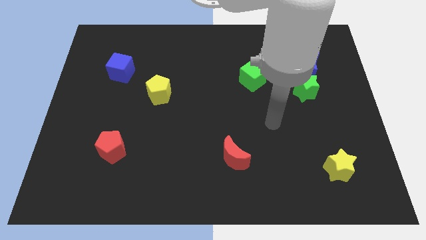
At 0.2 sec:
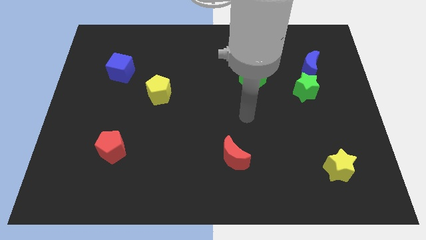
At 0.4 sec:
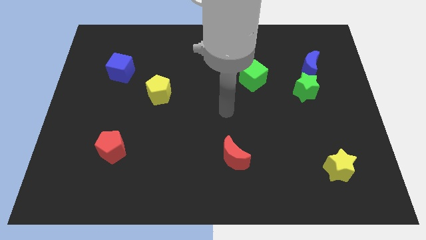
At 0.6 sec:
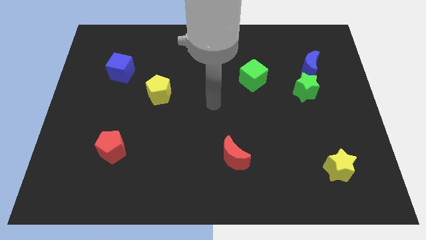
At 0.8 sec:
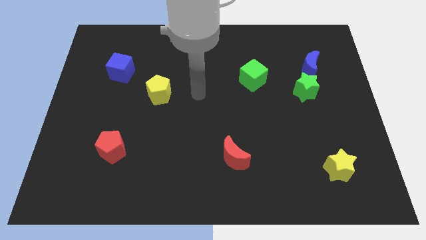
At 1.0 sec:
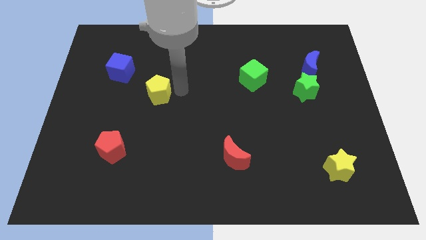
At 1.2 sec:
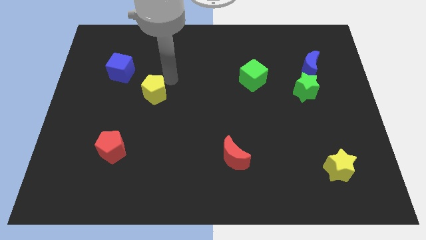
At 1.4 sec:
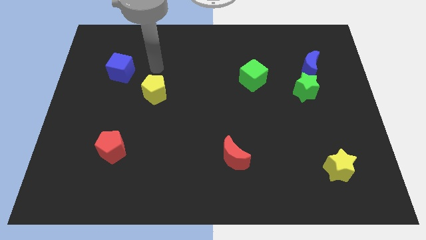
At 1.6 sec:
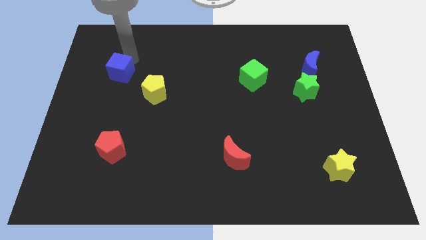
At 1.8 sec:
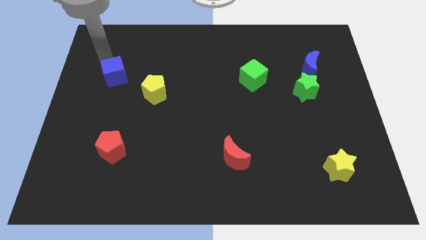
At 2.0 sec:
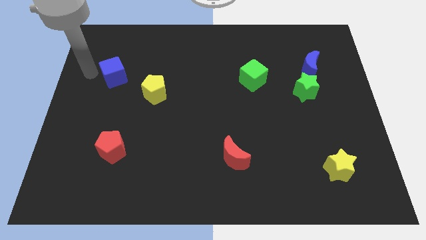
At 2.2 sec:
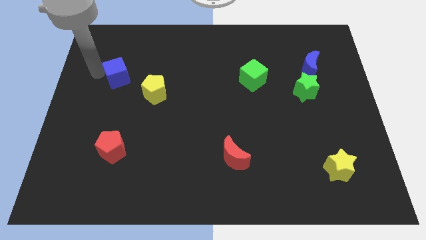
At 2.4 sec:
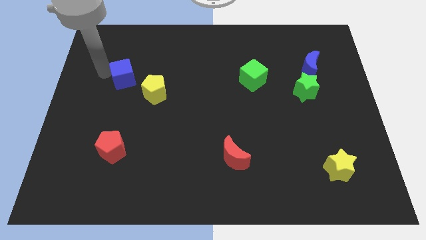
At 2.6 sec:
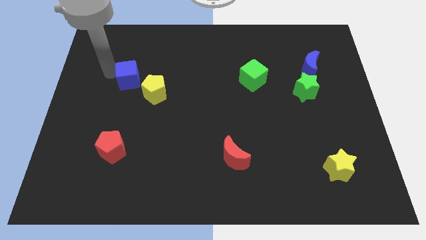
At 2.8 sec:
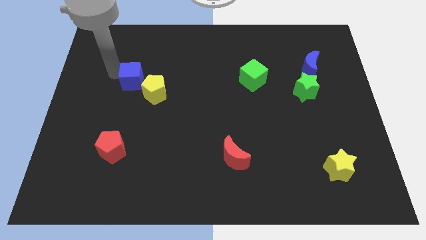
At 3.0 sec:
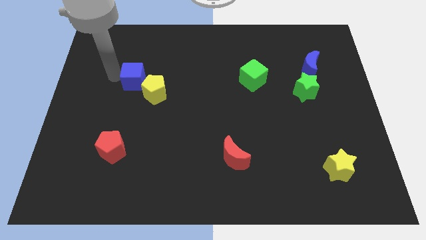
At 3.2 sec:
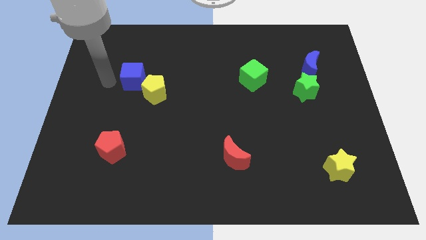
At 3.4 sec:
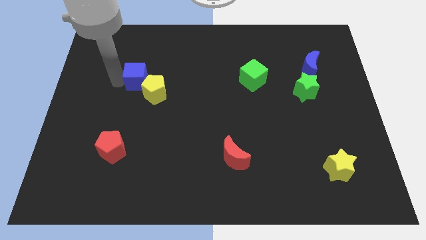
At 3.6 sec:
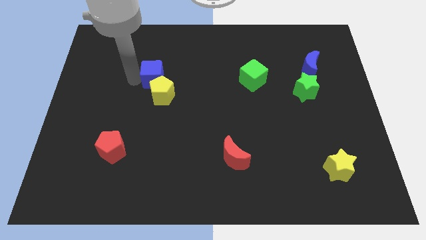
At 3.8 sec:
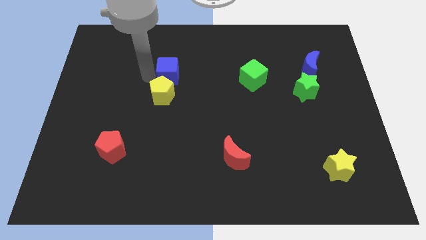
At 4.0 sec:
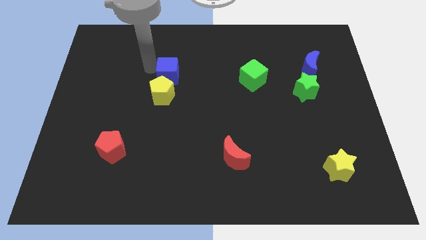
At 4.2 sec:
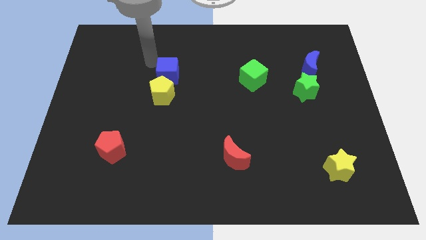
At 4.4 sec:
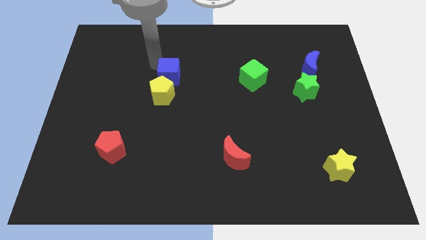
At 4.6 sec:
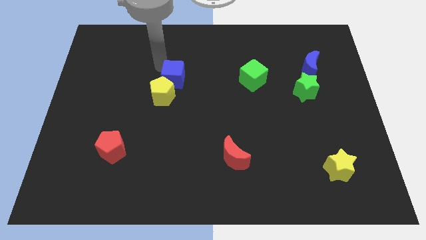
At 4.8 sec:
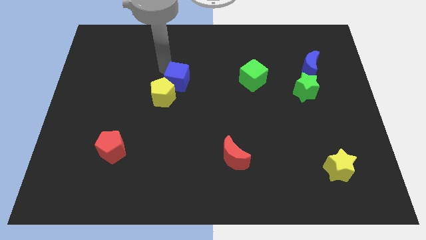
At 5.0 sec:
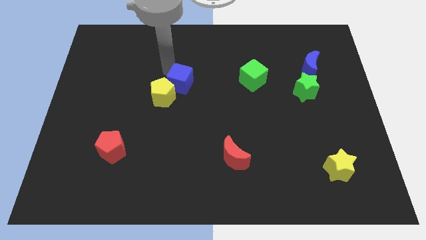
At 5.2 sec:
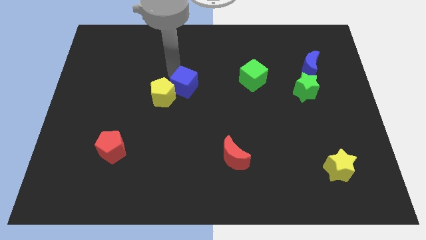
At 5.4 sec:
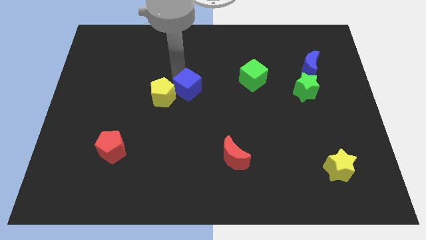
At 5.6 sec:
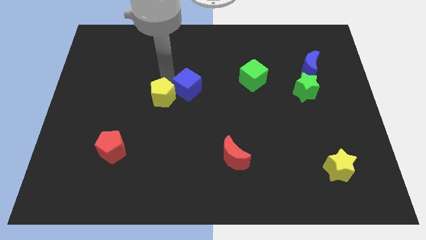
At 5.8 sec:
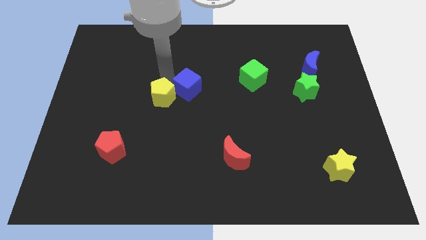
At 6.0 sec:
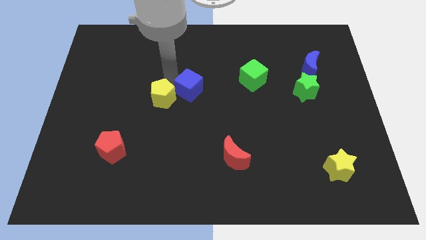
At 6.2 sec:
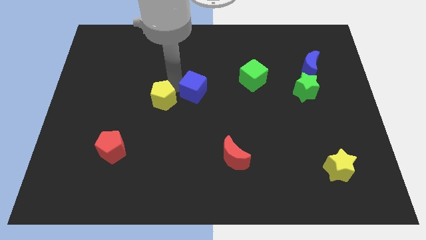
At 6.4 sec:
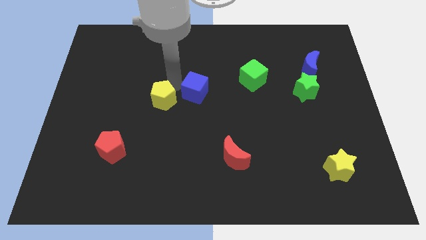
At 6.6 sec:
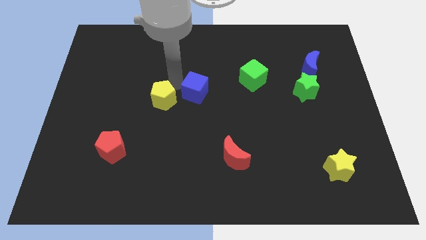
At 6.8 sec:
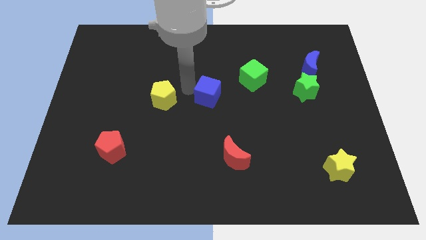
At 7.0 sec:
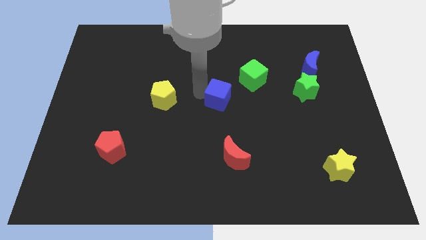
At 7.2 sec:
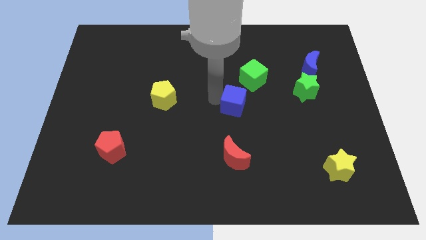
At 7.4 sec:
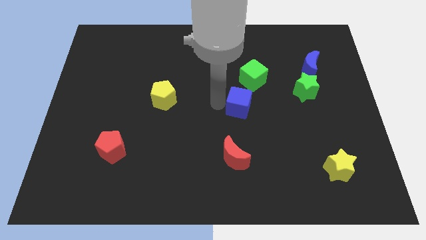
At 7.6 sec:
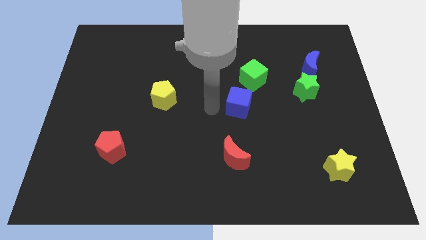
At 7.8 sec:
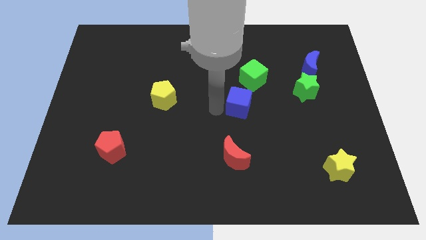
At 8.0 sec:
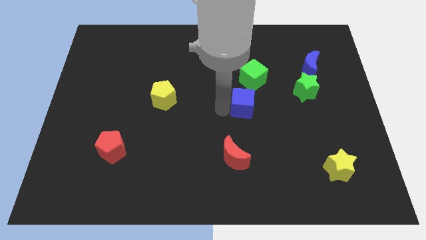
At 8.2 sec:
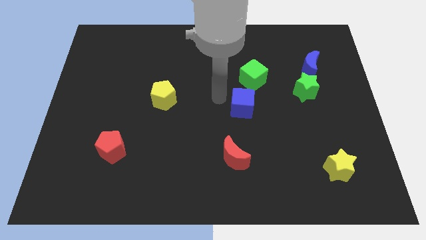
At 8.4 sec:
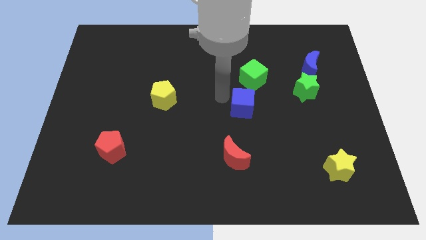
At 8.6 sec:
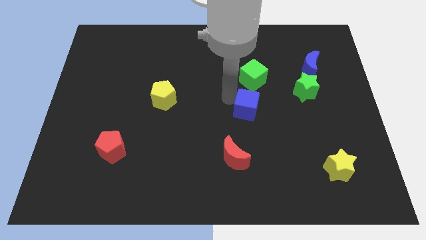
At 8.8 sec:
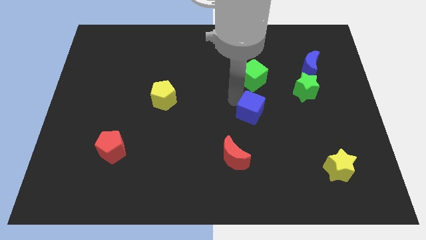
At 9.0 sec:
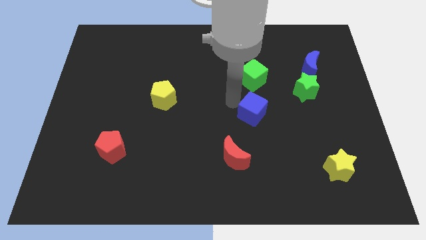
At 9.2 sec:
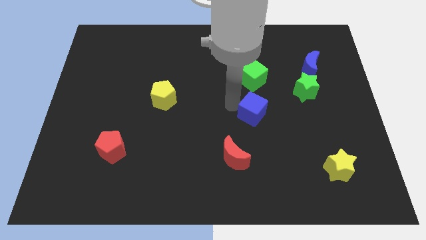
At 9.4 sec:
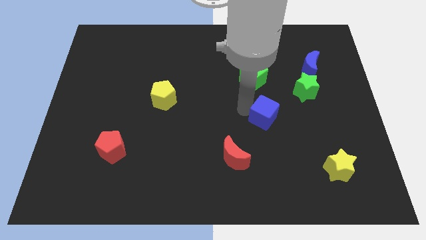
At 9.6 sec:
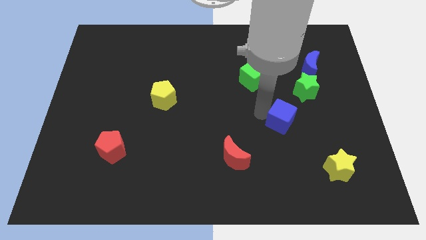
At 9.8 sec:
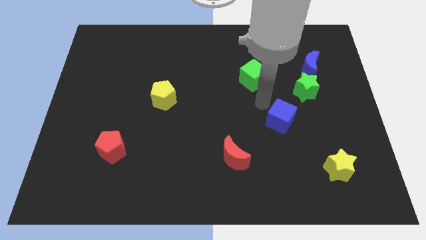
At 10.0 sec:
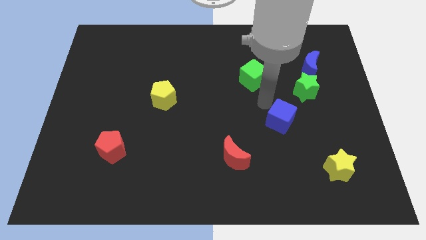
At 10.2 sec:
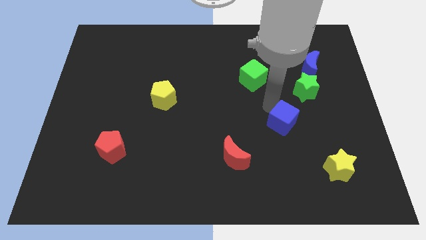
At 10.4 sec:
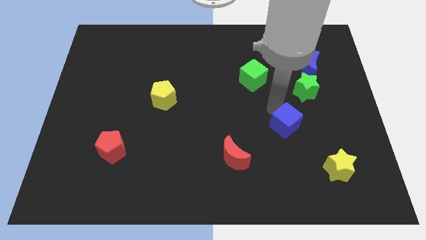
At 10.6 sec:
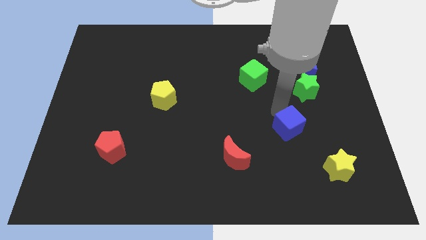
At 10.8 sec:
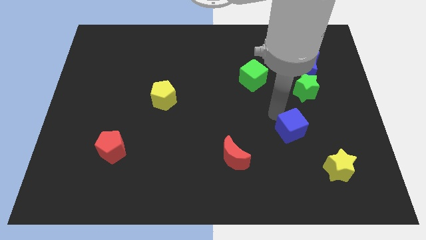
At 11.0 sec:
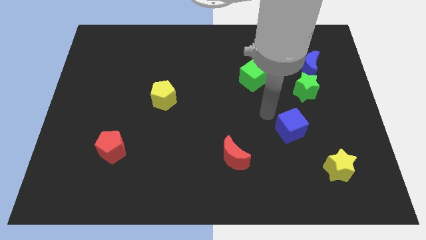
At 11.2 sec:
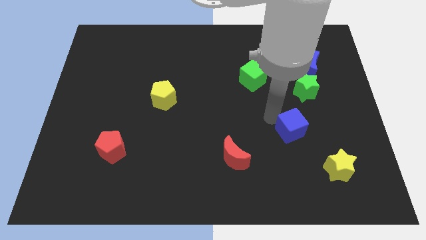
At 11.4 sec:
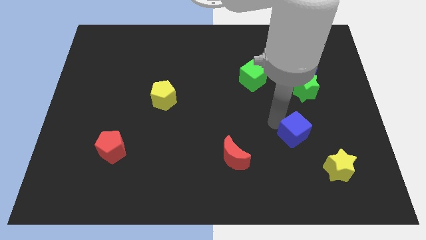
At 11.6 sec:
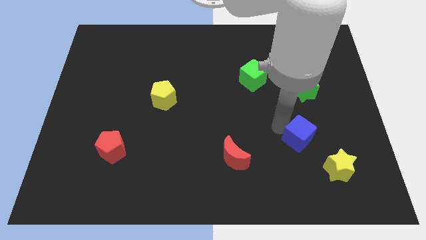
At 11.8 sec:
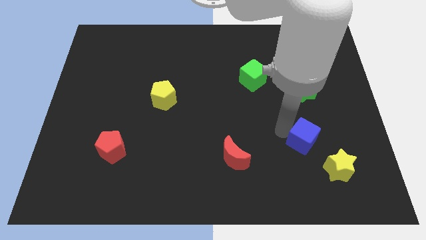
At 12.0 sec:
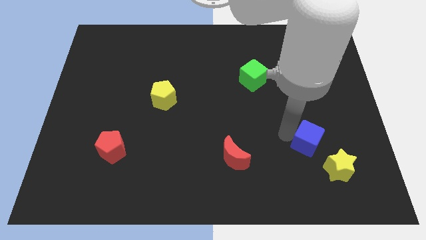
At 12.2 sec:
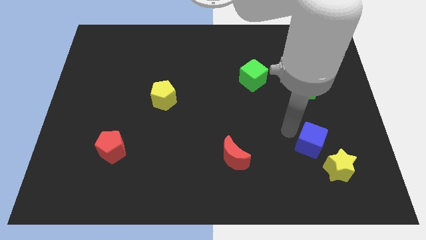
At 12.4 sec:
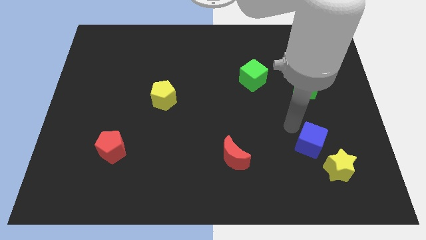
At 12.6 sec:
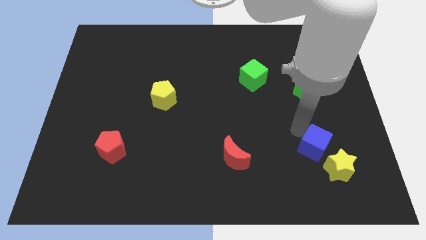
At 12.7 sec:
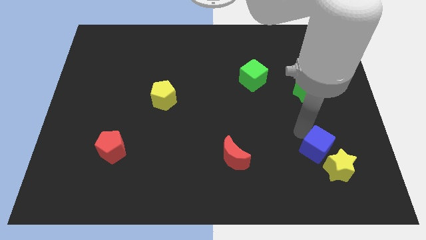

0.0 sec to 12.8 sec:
push the blue cube close to the yellow star

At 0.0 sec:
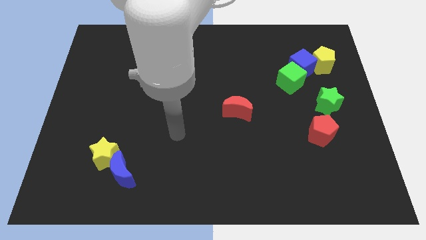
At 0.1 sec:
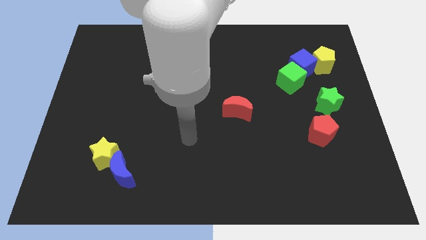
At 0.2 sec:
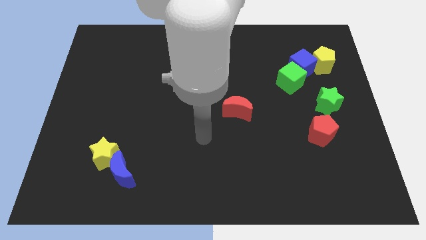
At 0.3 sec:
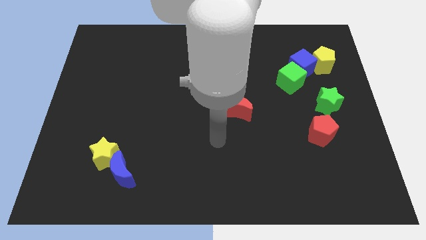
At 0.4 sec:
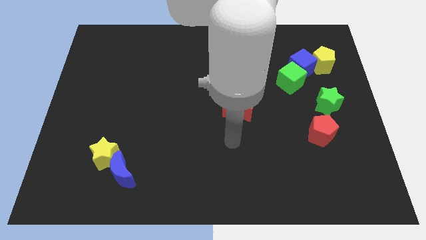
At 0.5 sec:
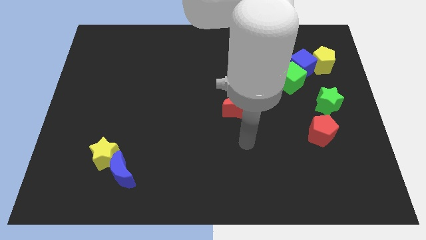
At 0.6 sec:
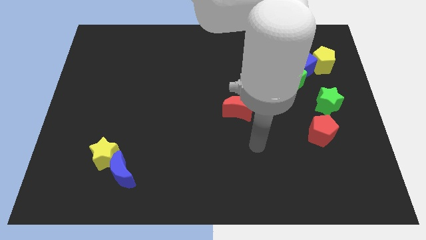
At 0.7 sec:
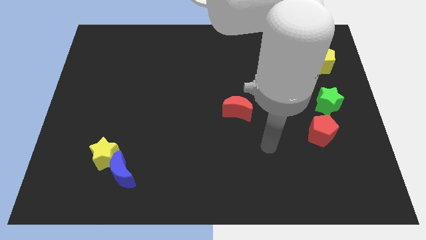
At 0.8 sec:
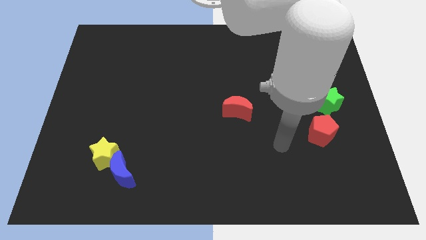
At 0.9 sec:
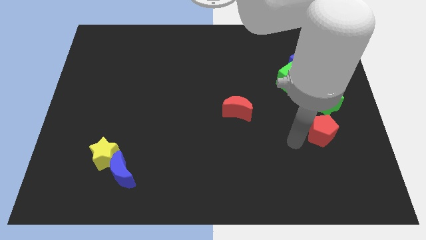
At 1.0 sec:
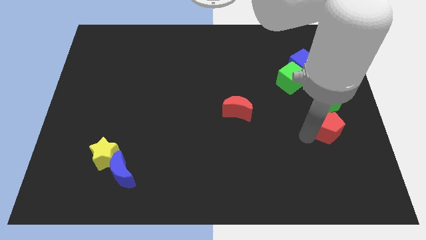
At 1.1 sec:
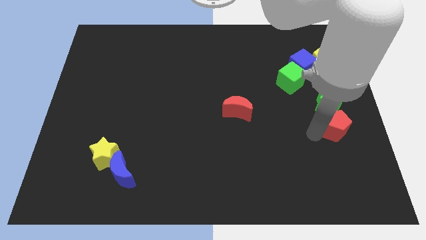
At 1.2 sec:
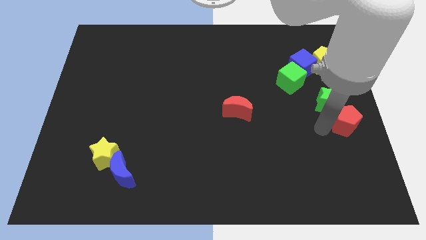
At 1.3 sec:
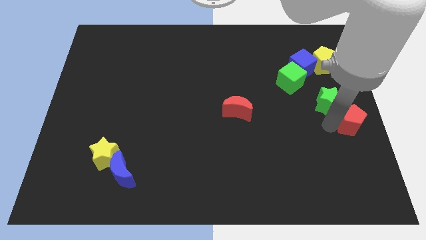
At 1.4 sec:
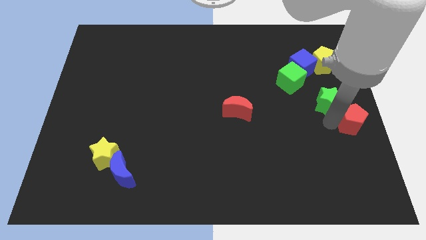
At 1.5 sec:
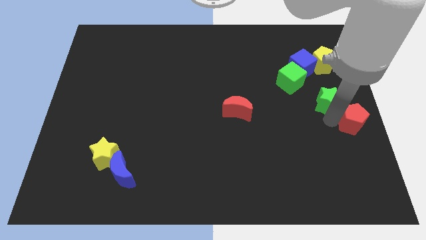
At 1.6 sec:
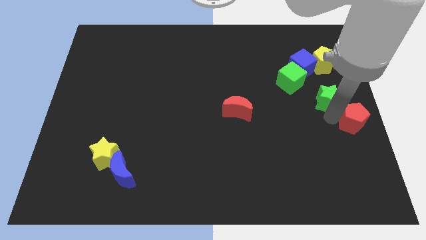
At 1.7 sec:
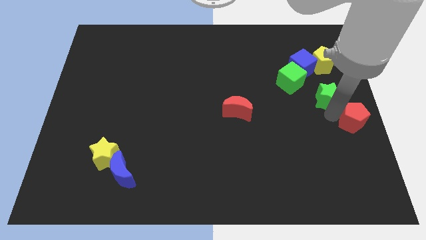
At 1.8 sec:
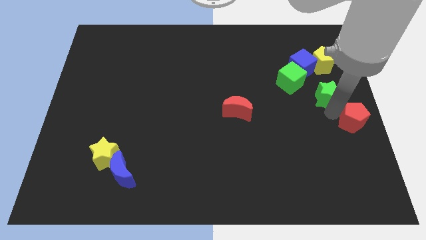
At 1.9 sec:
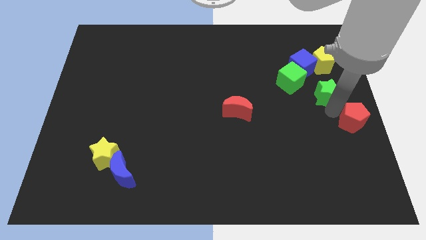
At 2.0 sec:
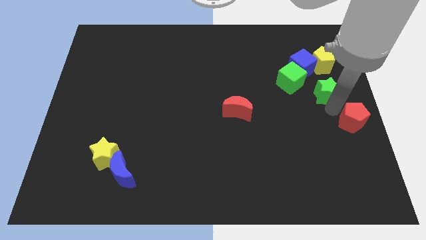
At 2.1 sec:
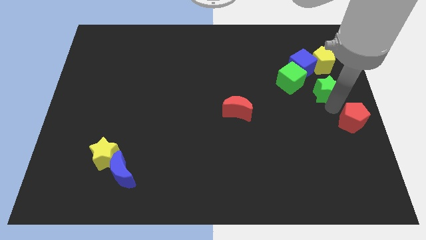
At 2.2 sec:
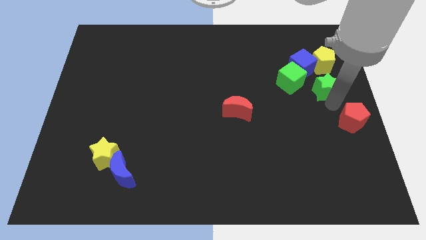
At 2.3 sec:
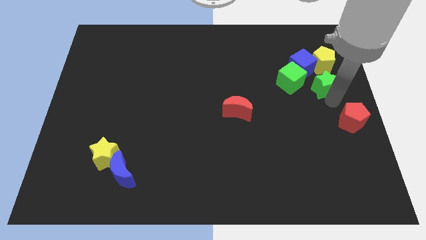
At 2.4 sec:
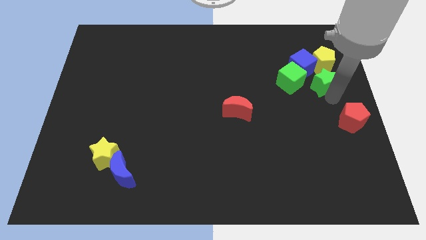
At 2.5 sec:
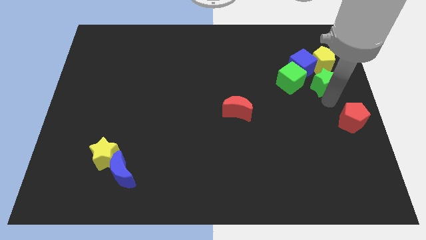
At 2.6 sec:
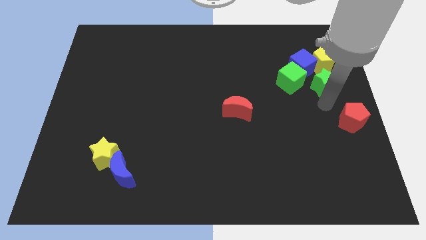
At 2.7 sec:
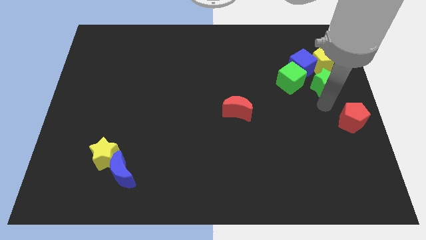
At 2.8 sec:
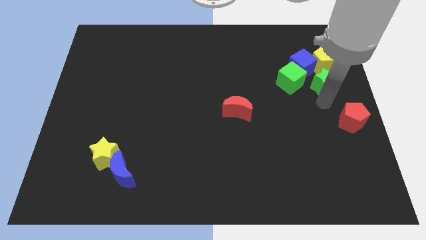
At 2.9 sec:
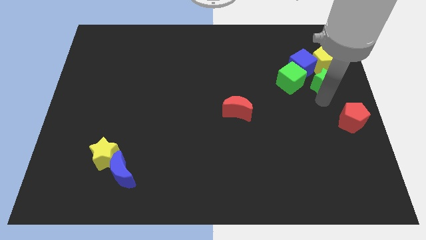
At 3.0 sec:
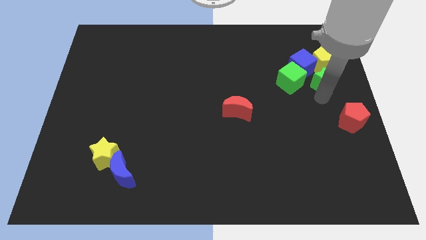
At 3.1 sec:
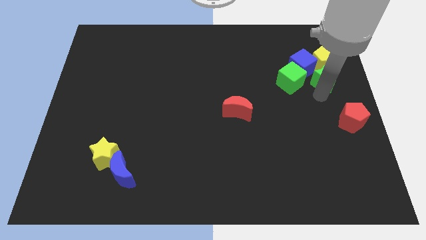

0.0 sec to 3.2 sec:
push the green star next to the yellow pentagon
